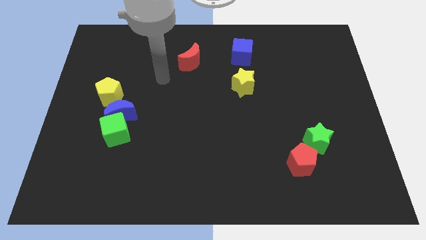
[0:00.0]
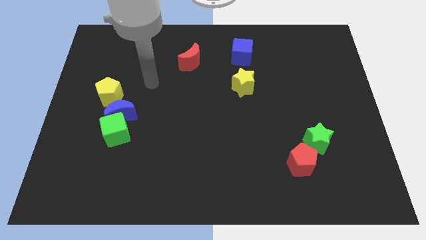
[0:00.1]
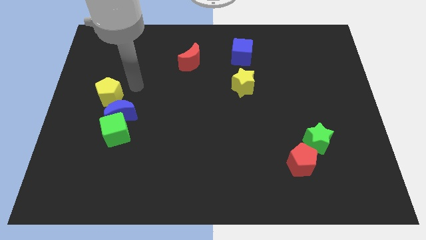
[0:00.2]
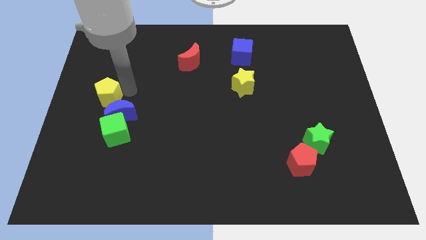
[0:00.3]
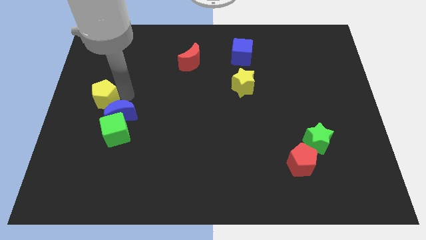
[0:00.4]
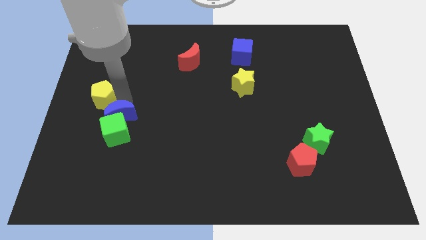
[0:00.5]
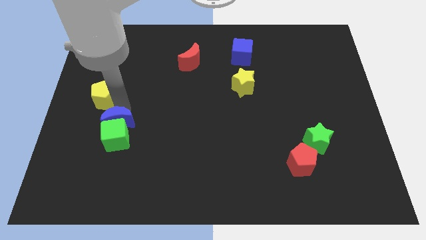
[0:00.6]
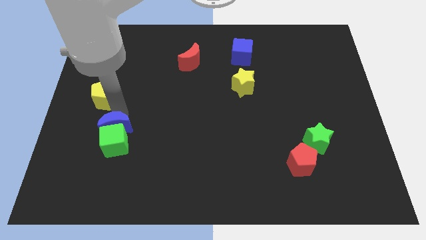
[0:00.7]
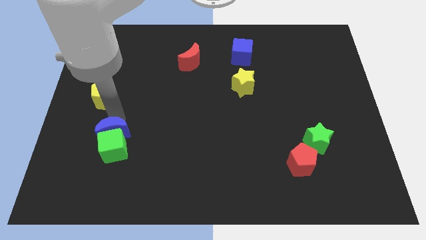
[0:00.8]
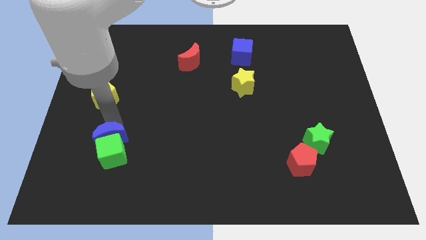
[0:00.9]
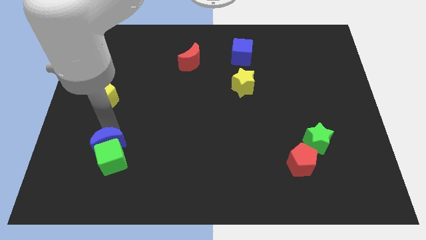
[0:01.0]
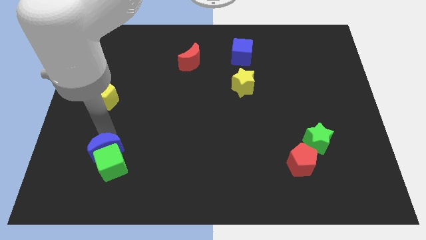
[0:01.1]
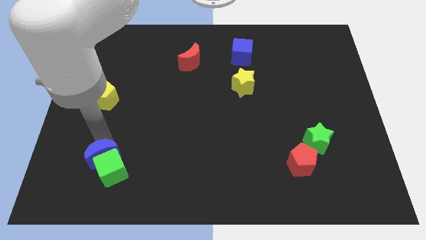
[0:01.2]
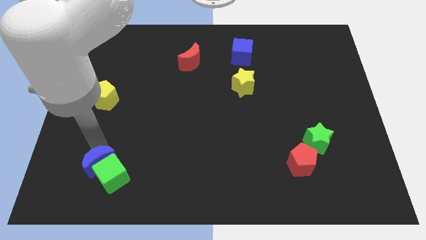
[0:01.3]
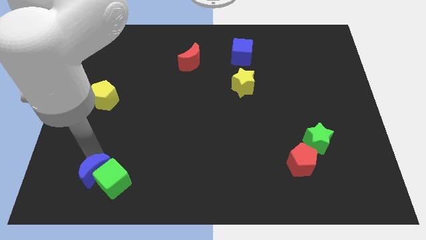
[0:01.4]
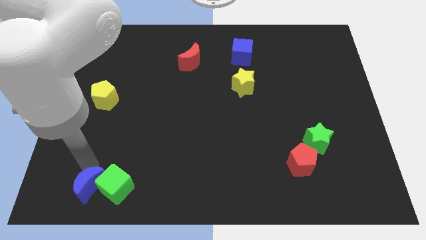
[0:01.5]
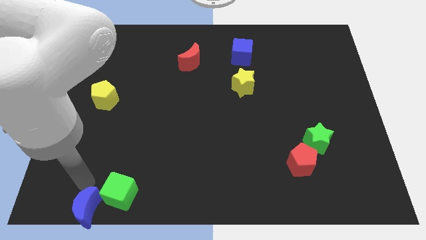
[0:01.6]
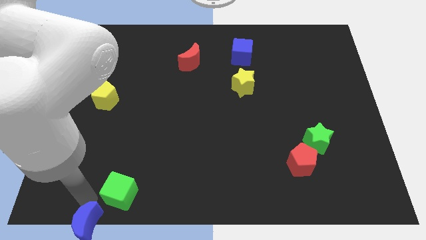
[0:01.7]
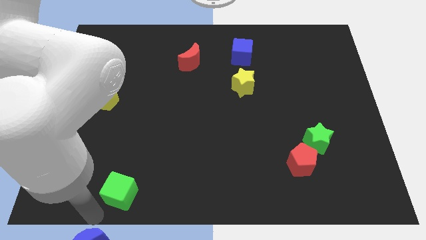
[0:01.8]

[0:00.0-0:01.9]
separate the green cube from the blue moon

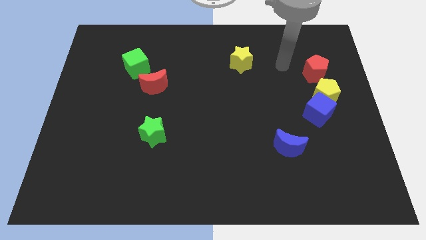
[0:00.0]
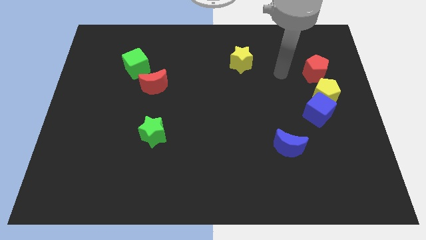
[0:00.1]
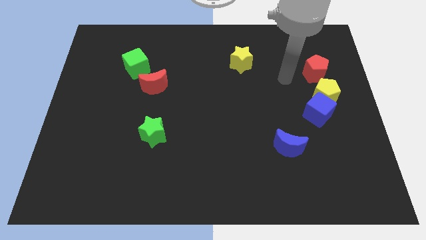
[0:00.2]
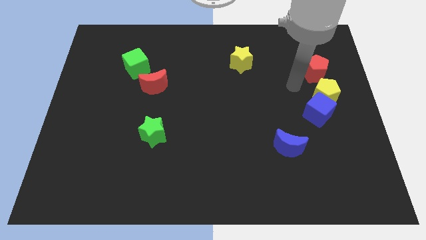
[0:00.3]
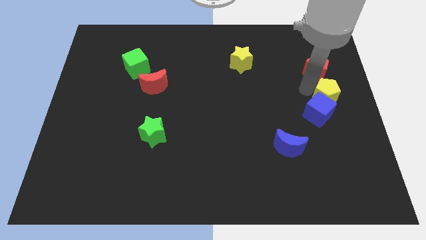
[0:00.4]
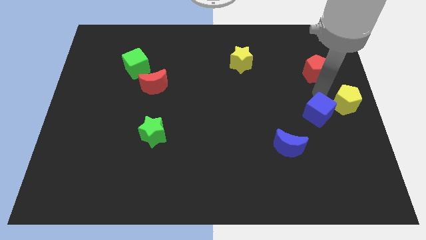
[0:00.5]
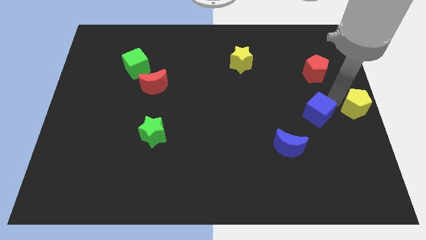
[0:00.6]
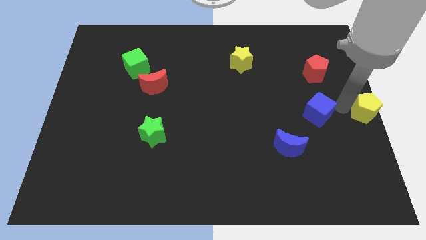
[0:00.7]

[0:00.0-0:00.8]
separate the blue cube from the yellow pentagon

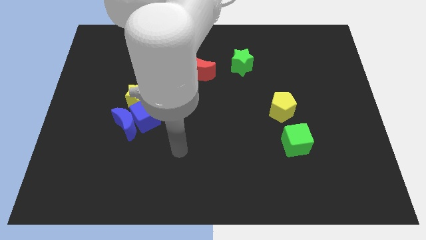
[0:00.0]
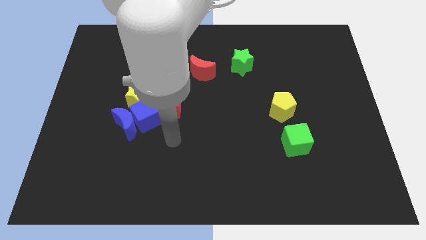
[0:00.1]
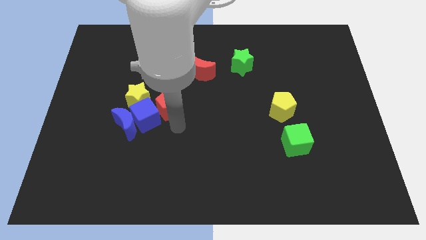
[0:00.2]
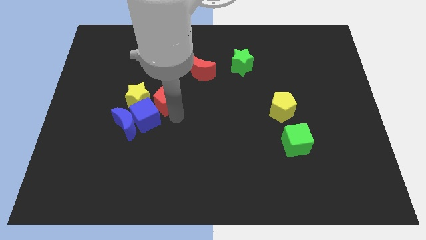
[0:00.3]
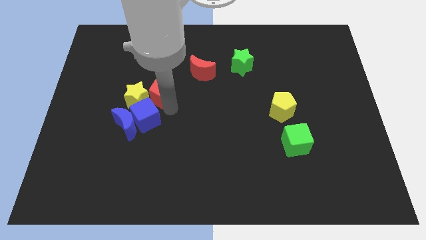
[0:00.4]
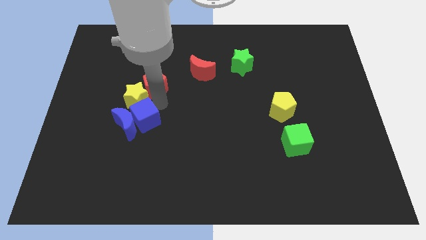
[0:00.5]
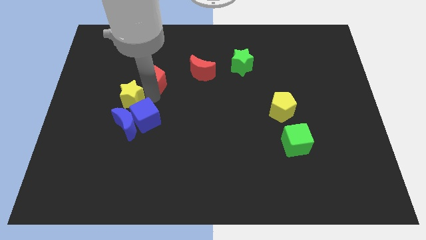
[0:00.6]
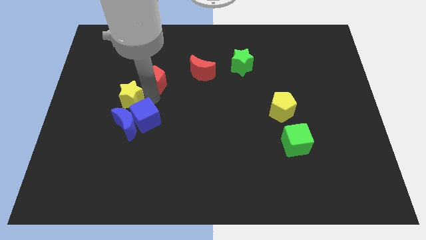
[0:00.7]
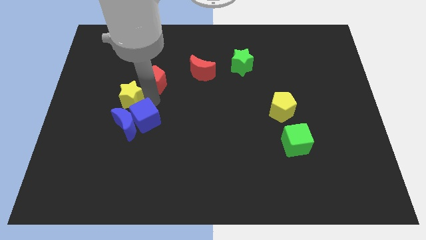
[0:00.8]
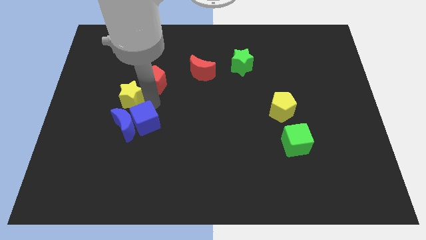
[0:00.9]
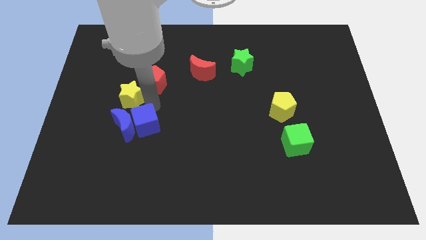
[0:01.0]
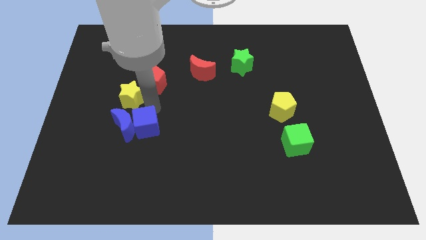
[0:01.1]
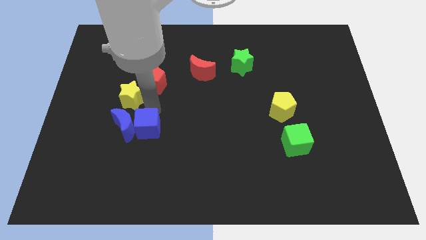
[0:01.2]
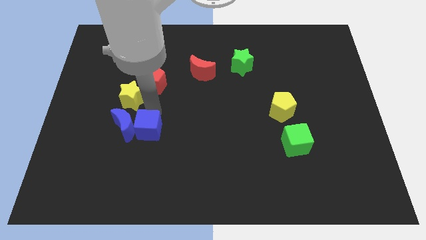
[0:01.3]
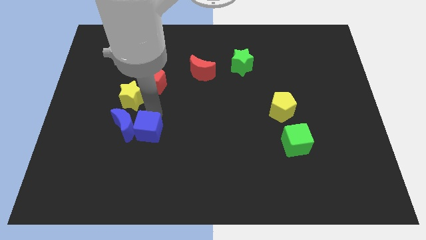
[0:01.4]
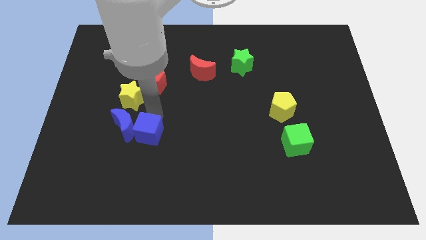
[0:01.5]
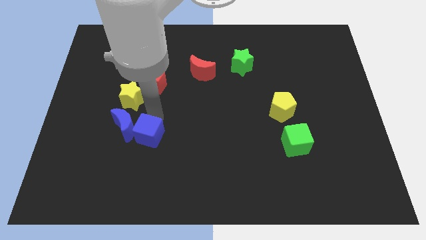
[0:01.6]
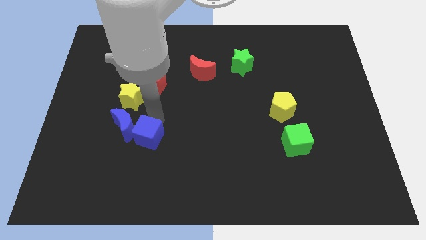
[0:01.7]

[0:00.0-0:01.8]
separate the blue cube from the clump

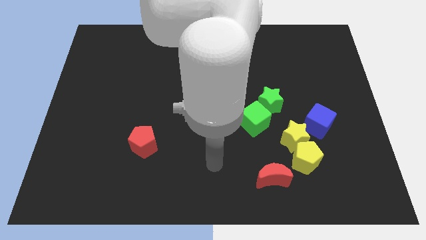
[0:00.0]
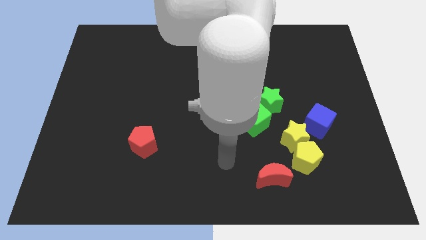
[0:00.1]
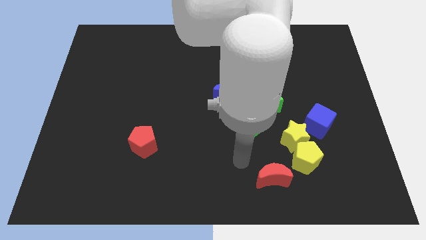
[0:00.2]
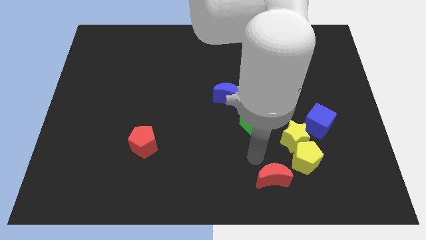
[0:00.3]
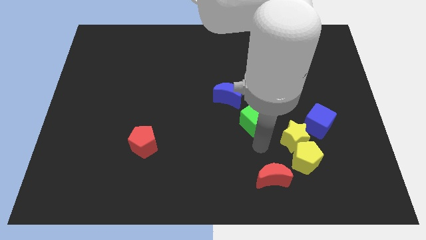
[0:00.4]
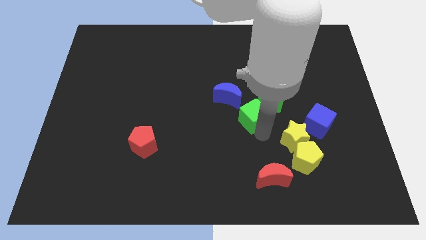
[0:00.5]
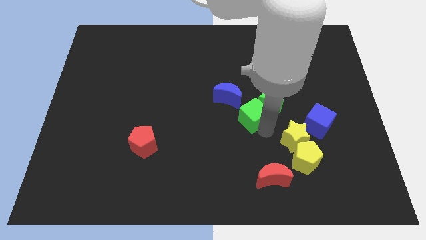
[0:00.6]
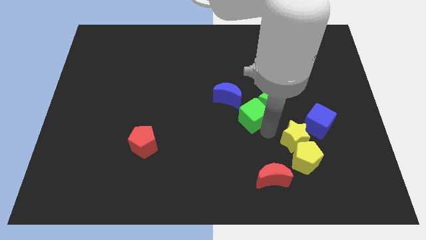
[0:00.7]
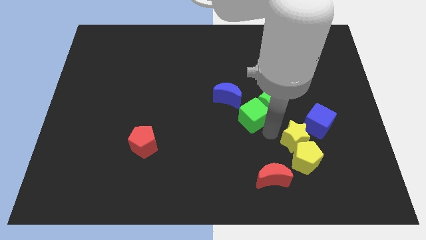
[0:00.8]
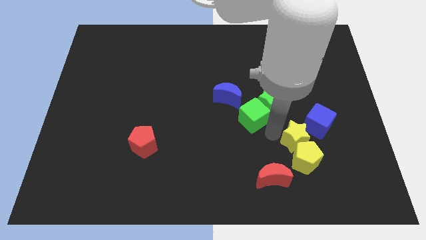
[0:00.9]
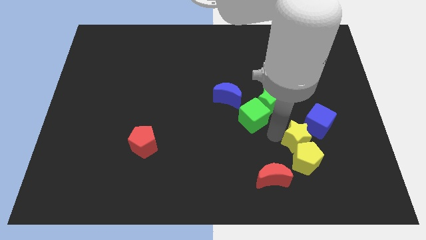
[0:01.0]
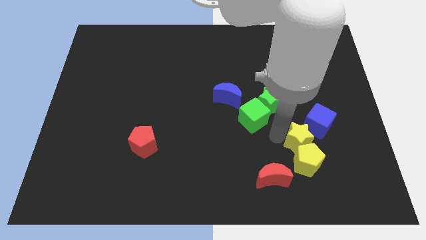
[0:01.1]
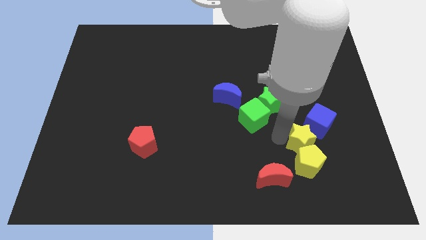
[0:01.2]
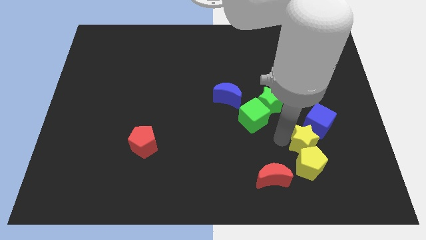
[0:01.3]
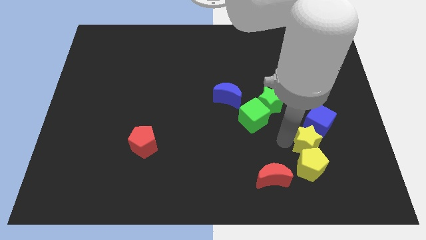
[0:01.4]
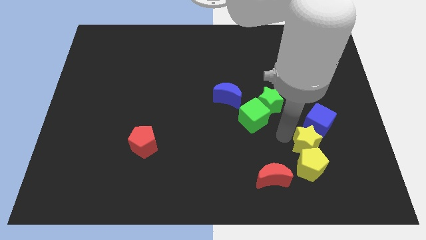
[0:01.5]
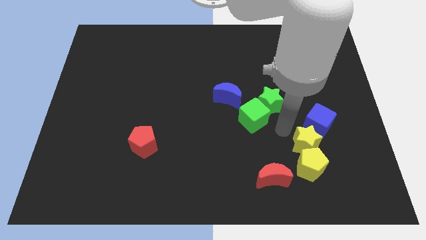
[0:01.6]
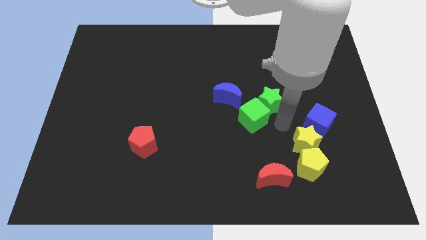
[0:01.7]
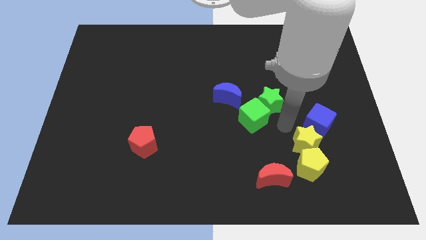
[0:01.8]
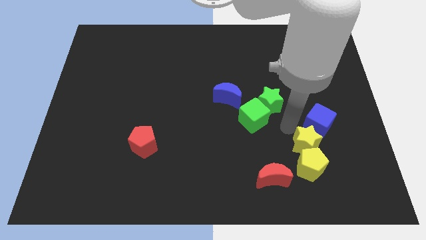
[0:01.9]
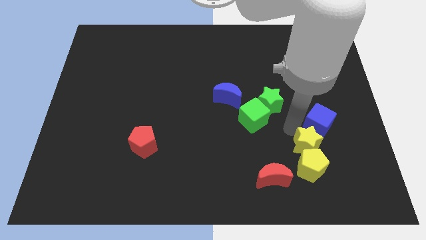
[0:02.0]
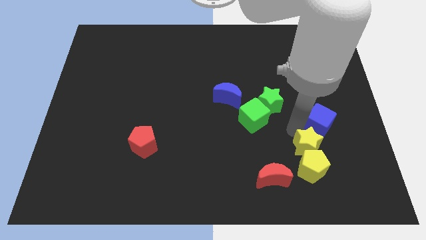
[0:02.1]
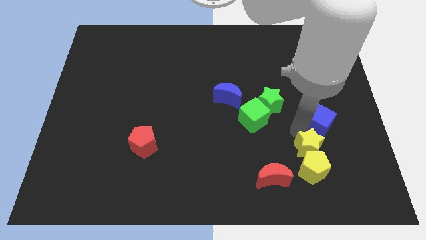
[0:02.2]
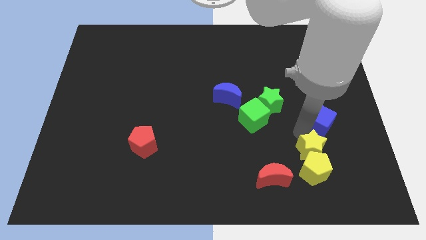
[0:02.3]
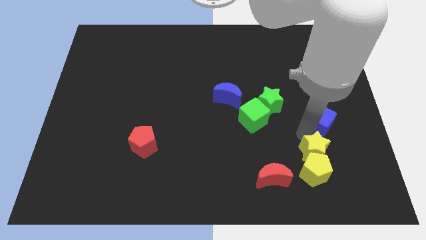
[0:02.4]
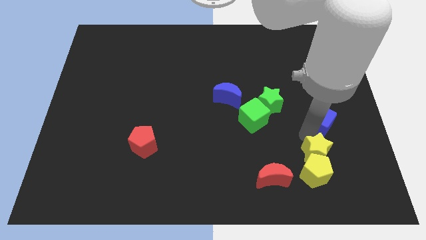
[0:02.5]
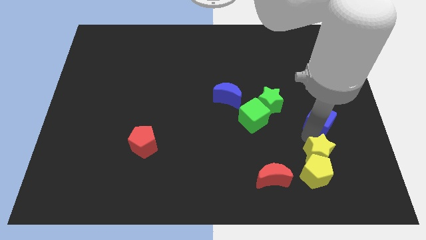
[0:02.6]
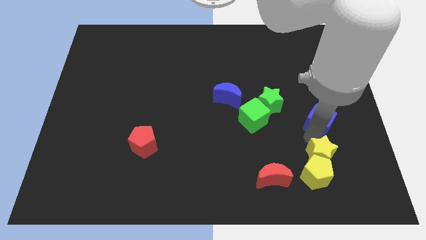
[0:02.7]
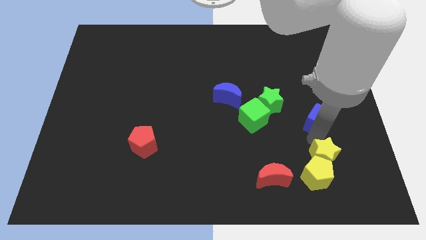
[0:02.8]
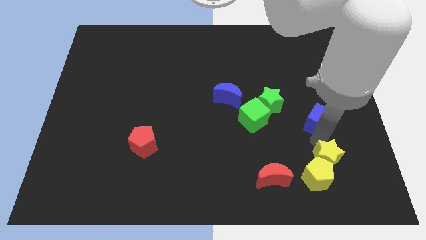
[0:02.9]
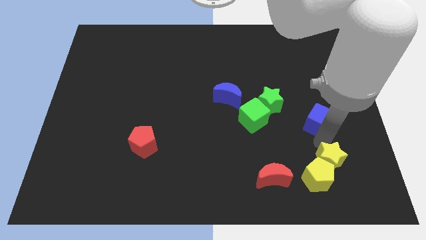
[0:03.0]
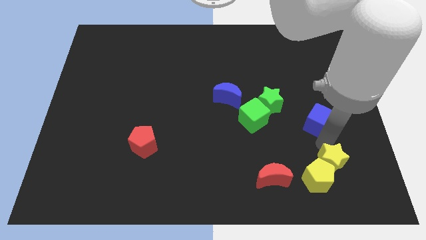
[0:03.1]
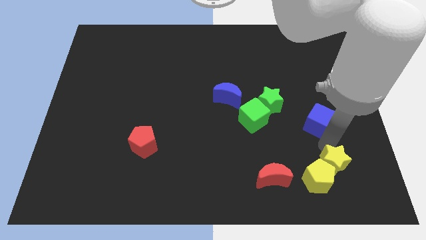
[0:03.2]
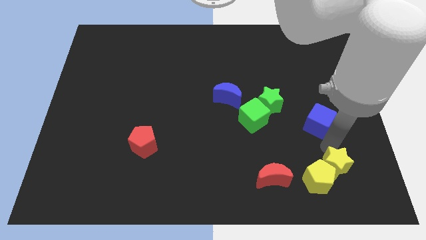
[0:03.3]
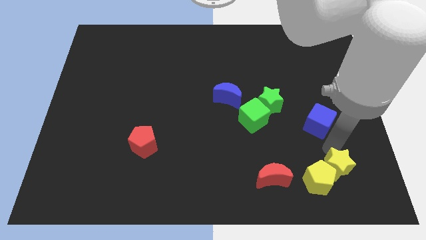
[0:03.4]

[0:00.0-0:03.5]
move the yellow star away from the yellow pentagon, blue cube, and green cube

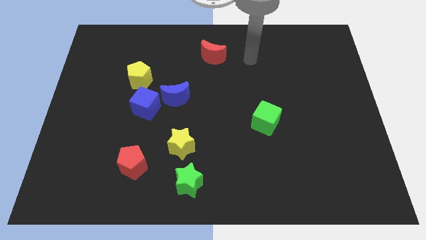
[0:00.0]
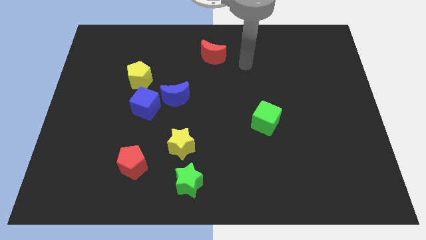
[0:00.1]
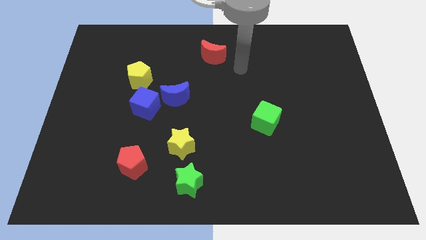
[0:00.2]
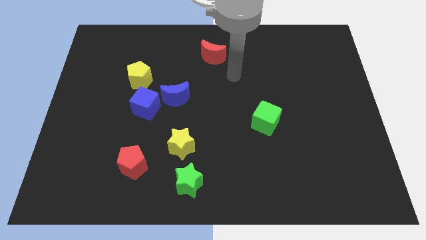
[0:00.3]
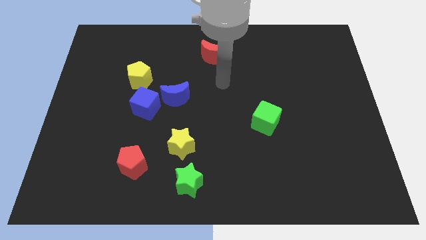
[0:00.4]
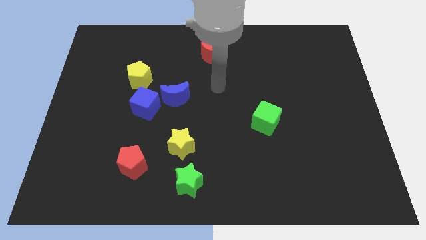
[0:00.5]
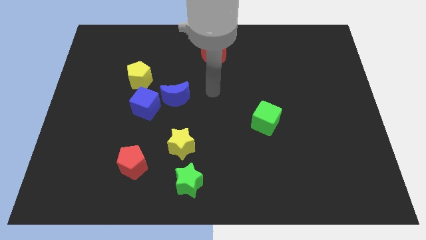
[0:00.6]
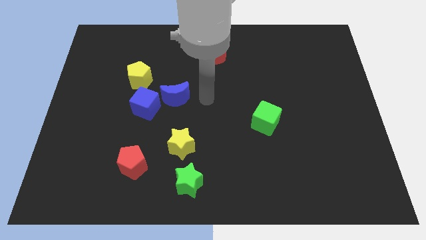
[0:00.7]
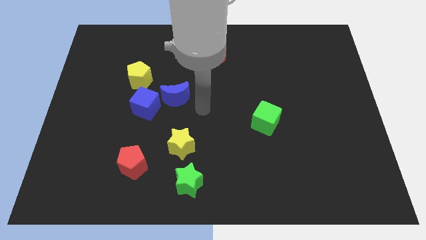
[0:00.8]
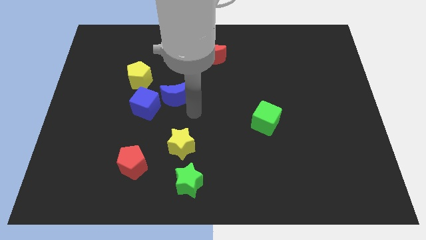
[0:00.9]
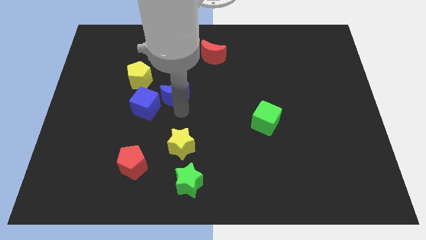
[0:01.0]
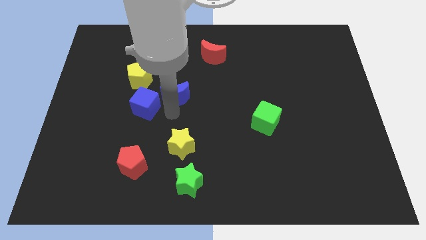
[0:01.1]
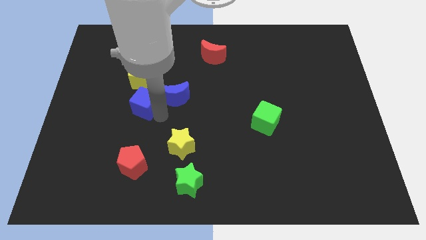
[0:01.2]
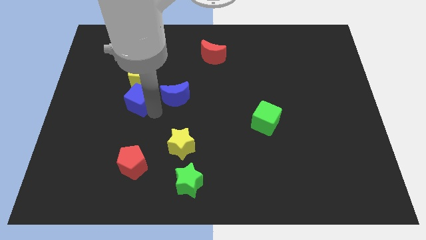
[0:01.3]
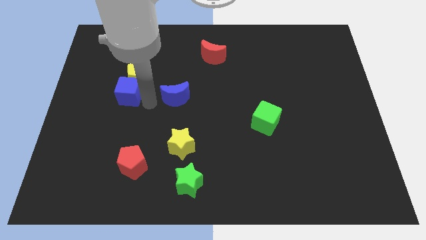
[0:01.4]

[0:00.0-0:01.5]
separate the blue moon from the blue cube
